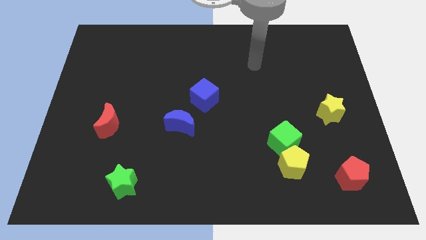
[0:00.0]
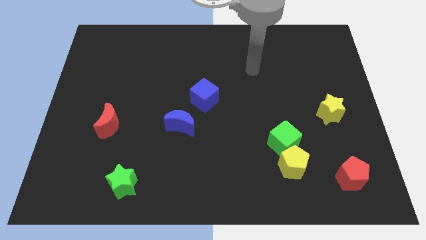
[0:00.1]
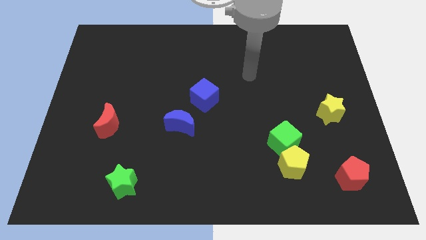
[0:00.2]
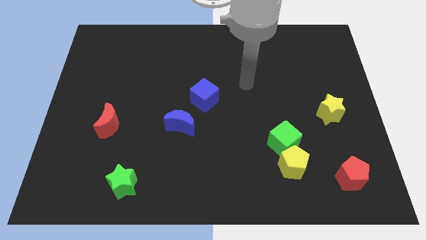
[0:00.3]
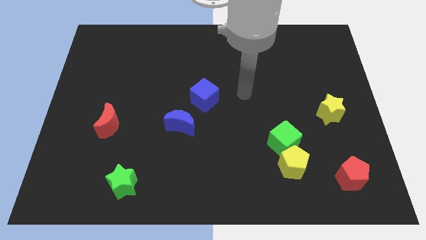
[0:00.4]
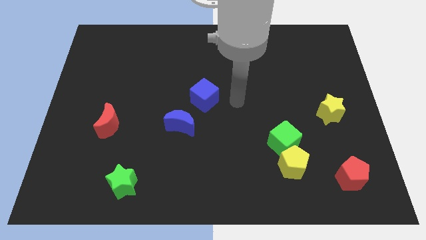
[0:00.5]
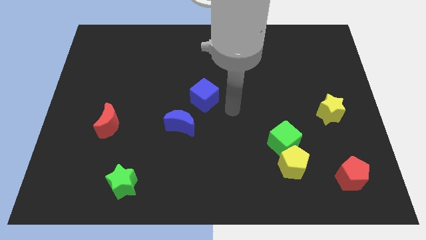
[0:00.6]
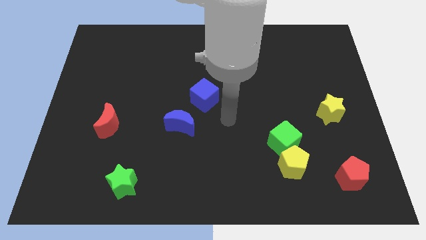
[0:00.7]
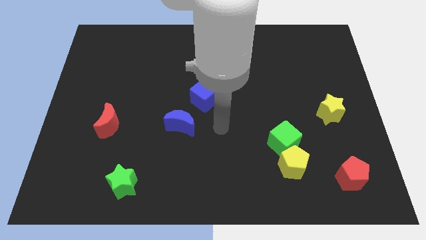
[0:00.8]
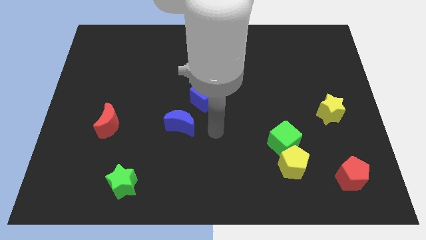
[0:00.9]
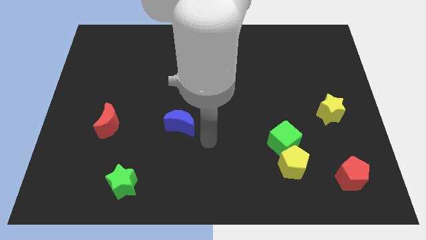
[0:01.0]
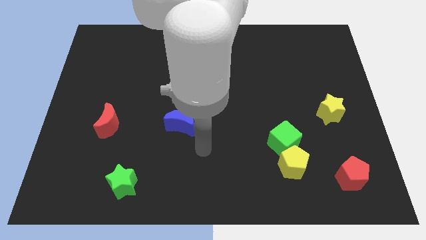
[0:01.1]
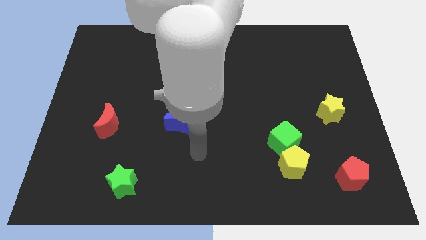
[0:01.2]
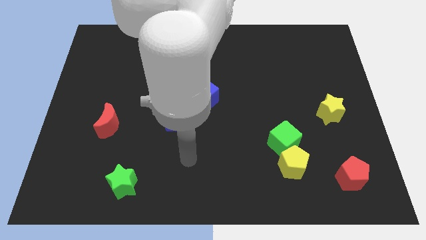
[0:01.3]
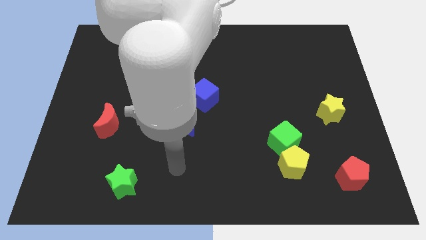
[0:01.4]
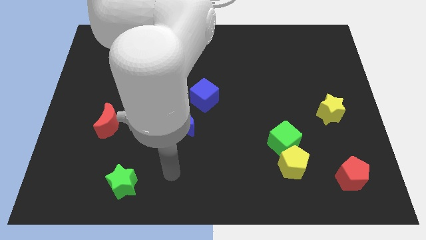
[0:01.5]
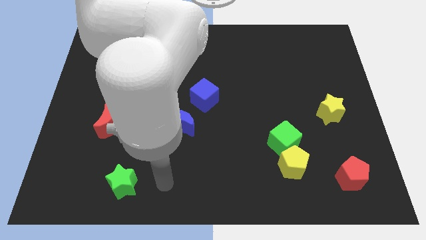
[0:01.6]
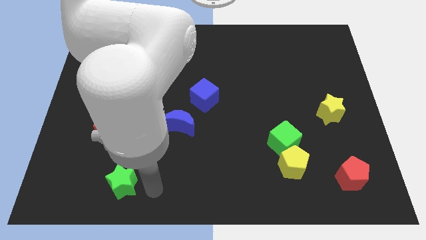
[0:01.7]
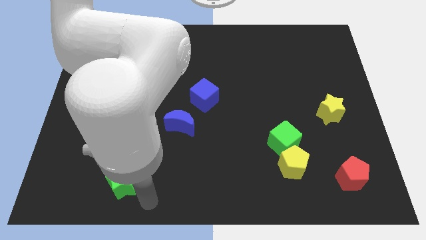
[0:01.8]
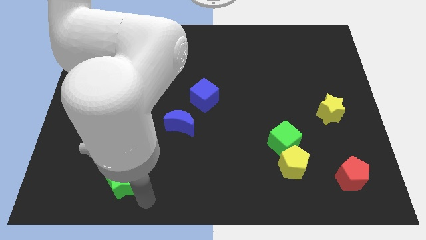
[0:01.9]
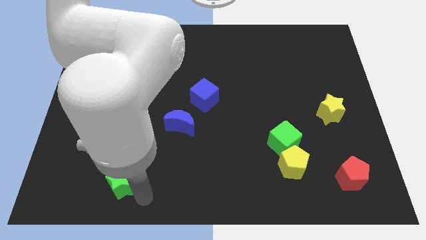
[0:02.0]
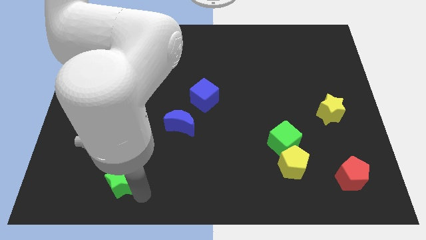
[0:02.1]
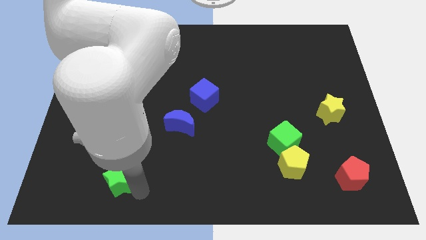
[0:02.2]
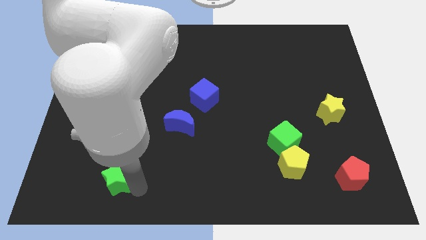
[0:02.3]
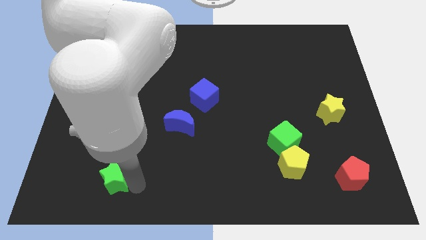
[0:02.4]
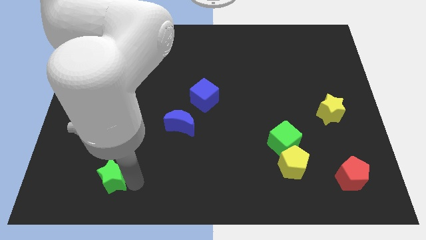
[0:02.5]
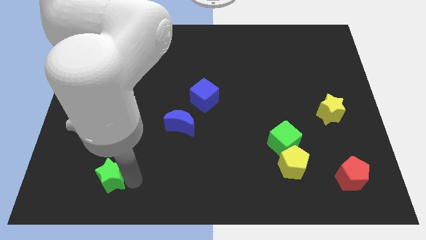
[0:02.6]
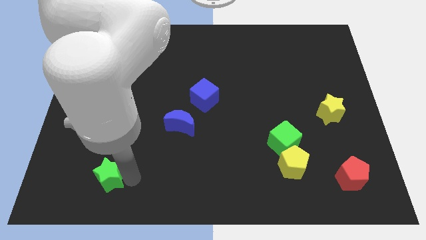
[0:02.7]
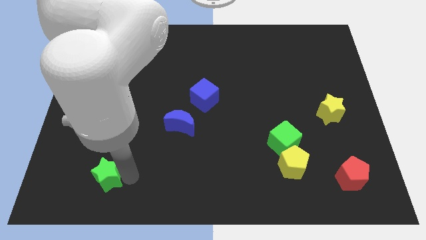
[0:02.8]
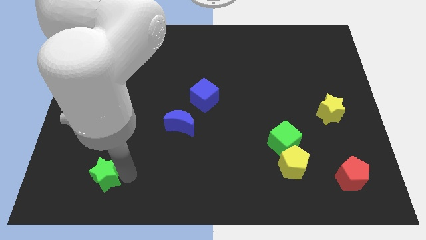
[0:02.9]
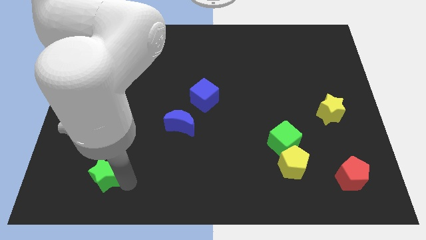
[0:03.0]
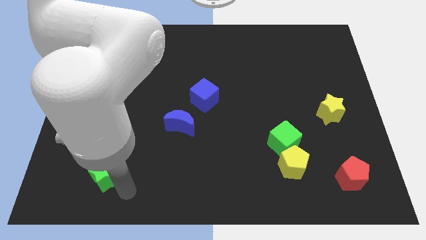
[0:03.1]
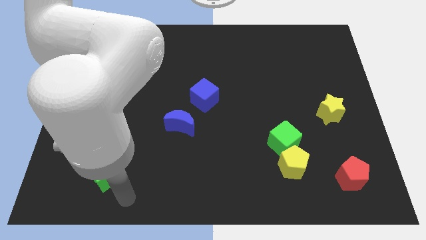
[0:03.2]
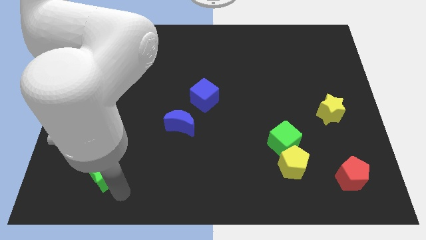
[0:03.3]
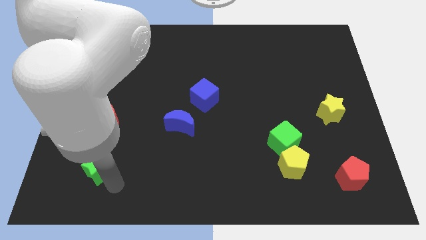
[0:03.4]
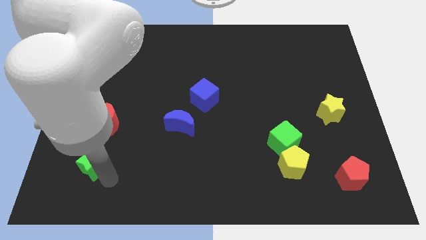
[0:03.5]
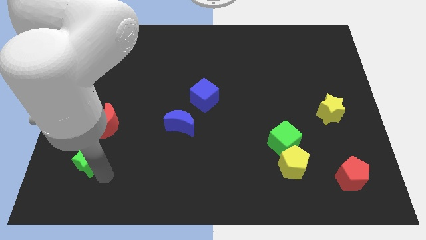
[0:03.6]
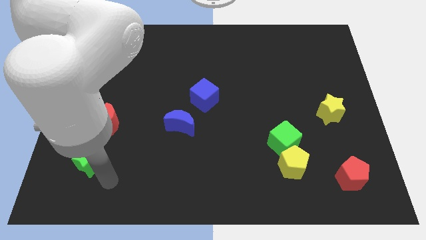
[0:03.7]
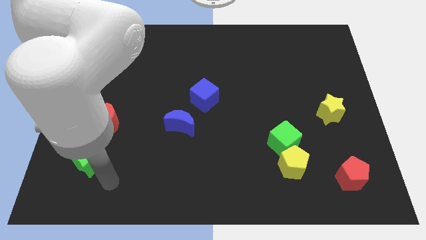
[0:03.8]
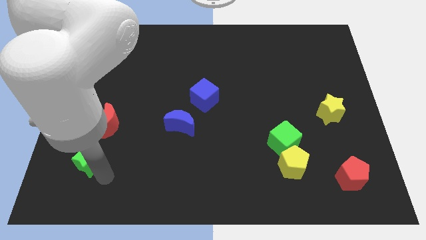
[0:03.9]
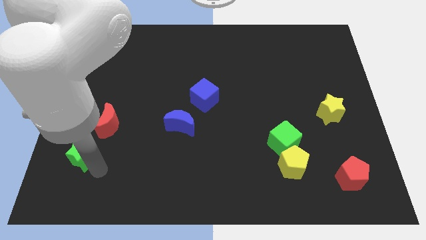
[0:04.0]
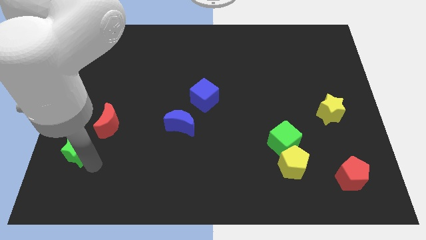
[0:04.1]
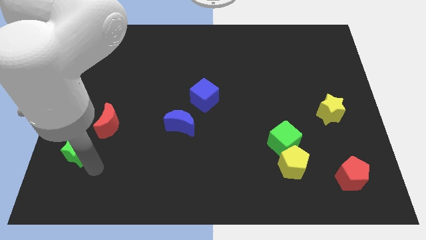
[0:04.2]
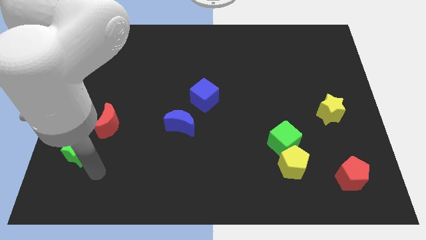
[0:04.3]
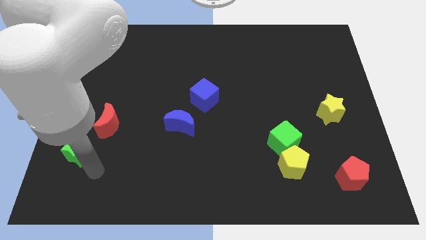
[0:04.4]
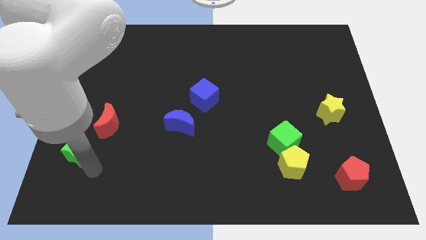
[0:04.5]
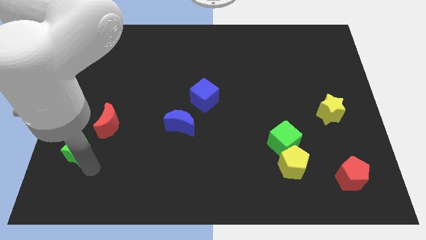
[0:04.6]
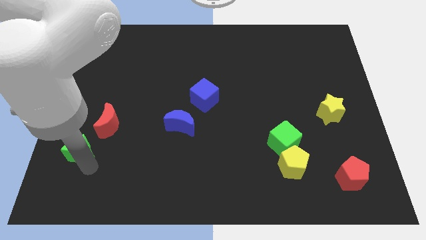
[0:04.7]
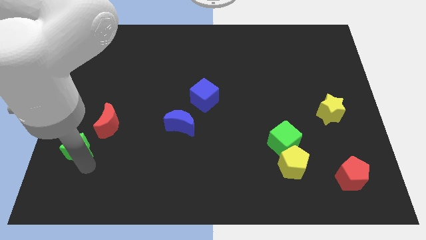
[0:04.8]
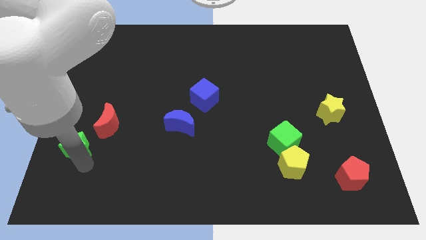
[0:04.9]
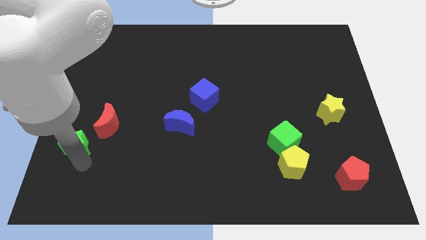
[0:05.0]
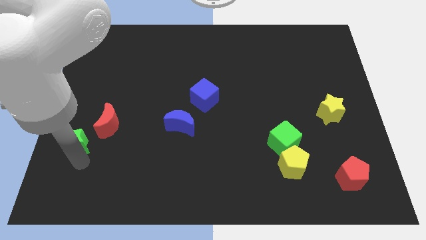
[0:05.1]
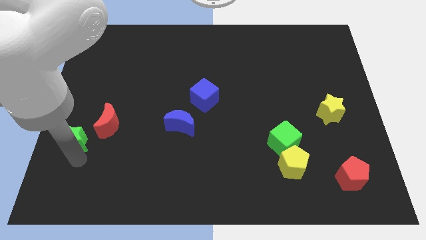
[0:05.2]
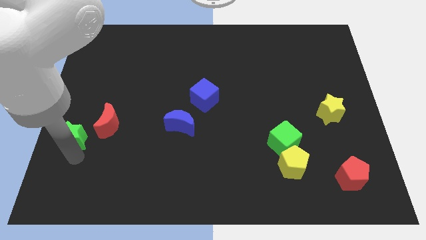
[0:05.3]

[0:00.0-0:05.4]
put the green star to the center left

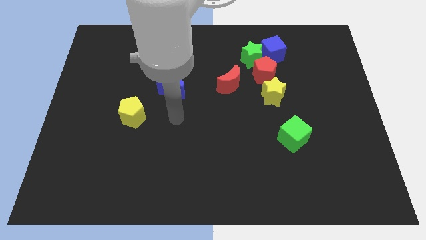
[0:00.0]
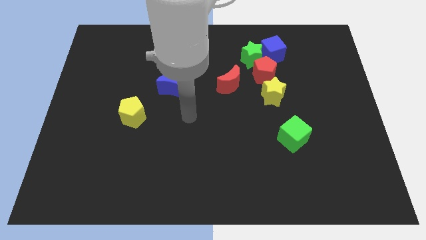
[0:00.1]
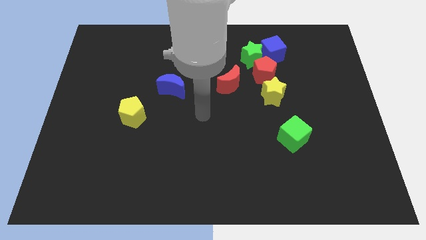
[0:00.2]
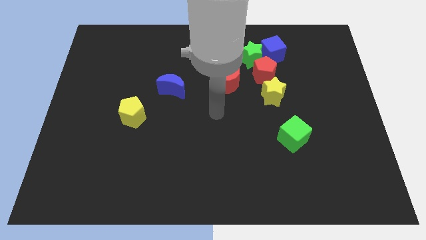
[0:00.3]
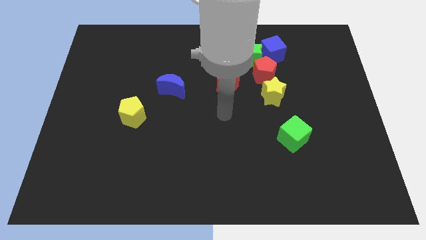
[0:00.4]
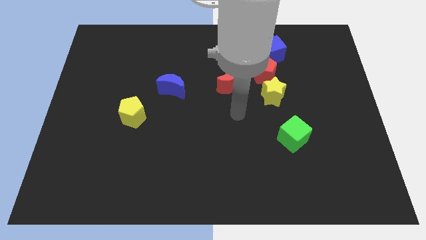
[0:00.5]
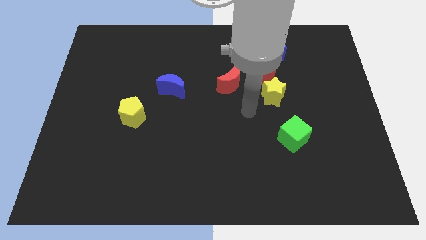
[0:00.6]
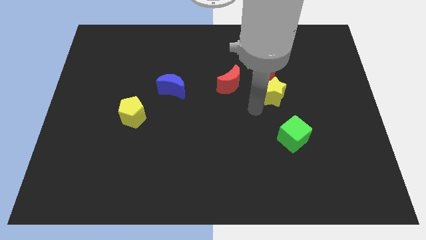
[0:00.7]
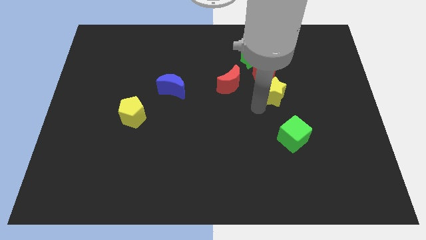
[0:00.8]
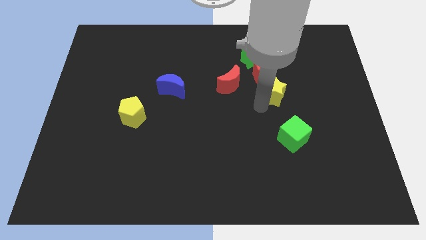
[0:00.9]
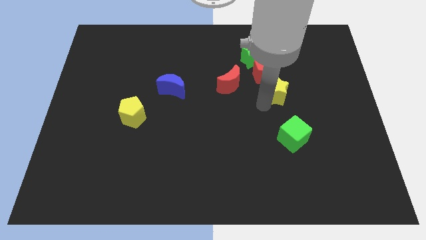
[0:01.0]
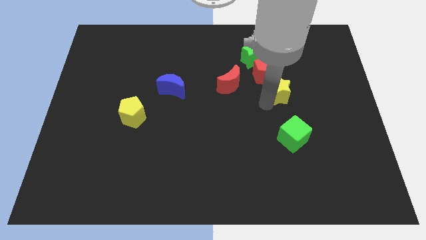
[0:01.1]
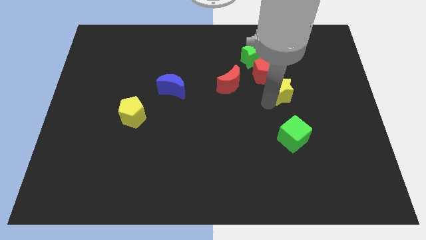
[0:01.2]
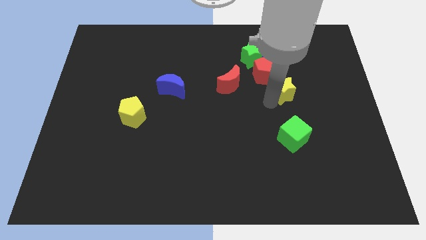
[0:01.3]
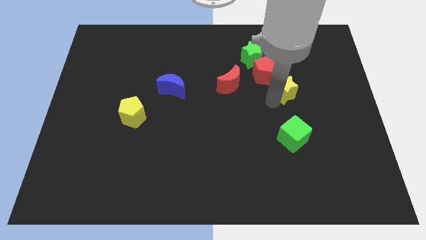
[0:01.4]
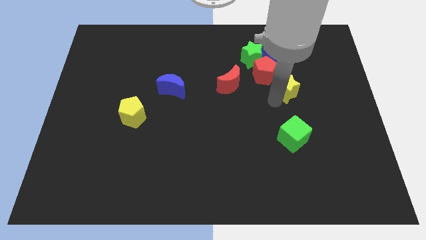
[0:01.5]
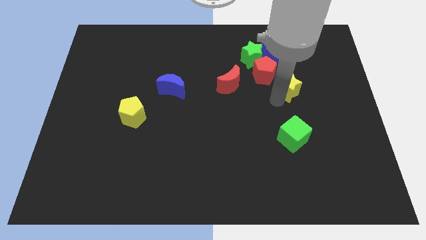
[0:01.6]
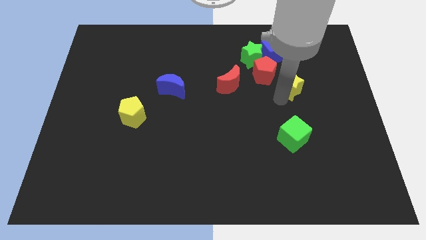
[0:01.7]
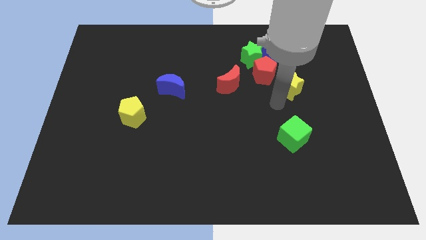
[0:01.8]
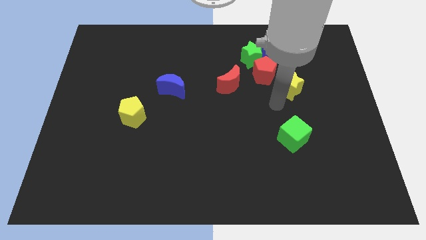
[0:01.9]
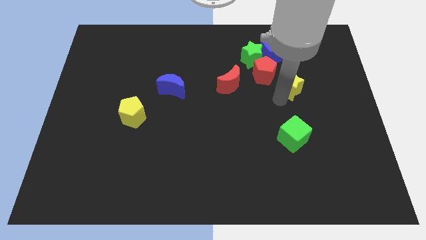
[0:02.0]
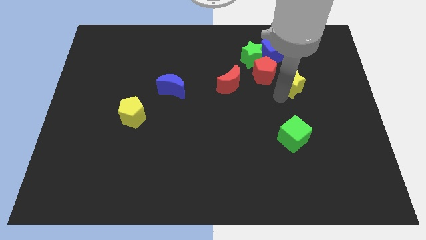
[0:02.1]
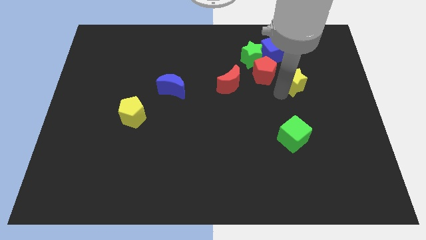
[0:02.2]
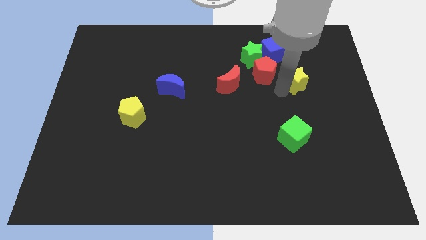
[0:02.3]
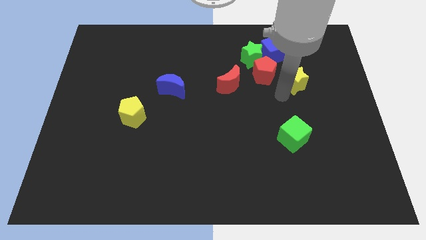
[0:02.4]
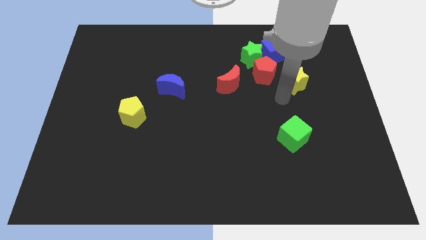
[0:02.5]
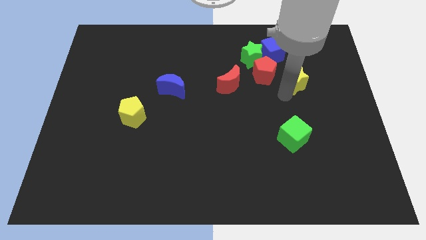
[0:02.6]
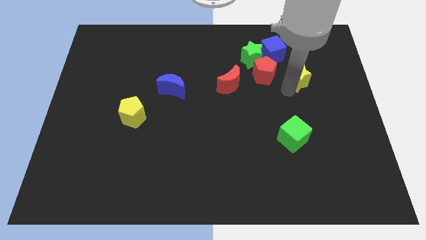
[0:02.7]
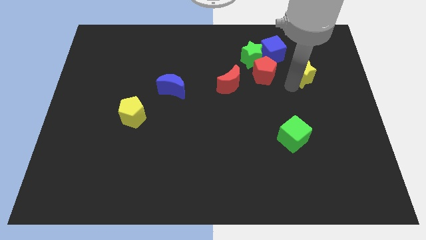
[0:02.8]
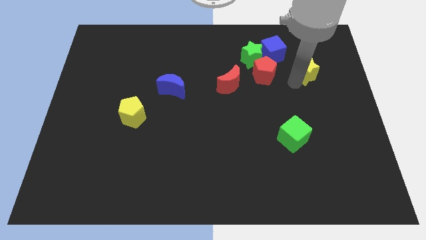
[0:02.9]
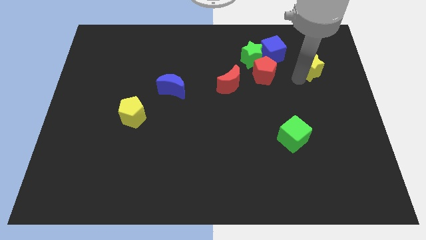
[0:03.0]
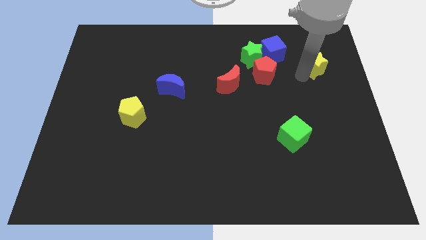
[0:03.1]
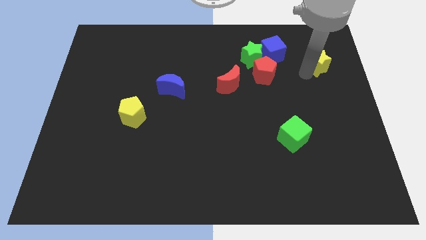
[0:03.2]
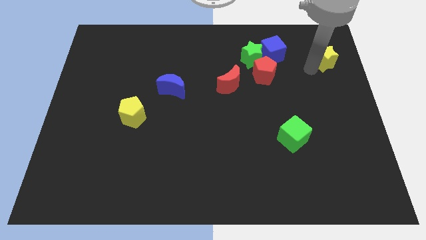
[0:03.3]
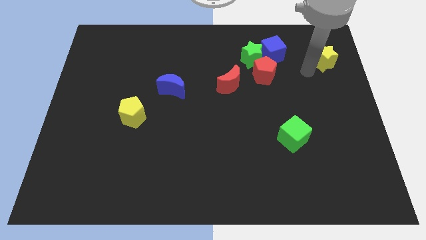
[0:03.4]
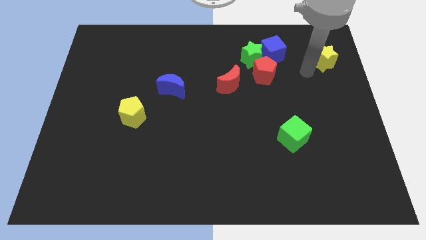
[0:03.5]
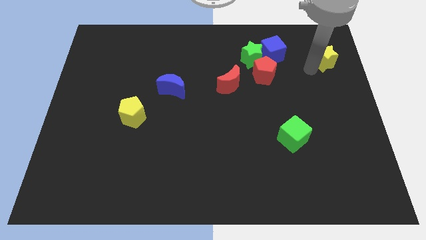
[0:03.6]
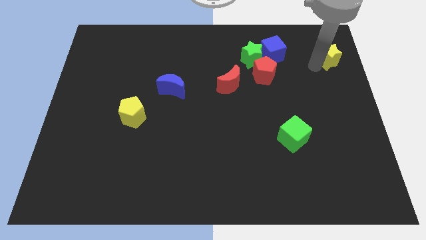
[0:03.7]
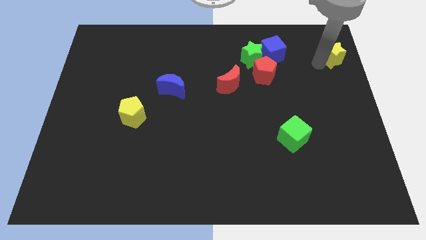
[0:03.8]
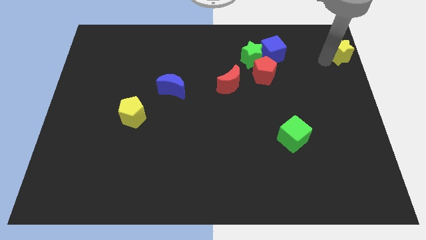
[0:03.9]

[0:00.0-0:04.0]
push the yellow star to the top right
